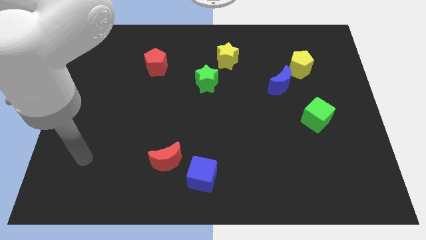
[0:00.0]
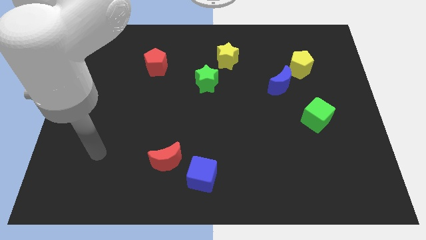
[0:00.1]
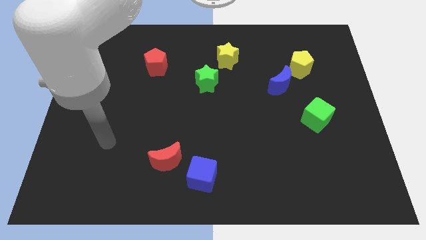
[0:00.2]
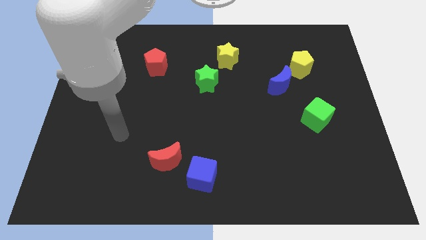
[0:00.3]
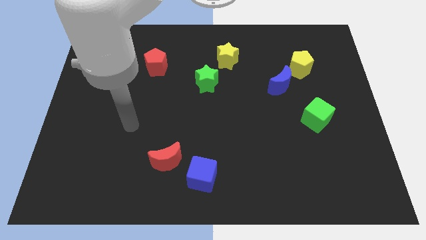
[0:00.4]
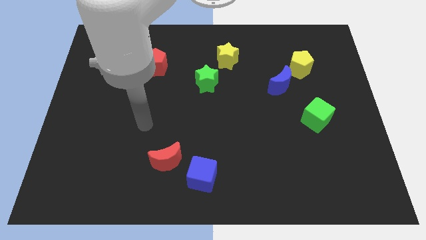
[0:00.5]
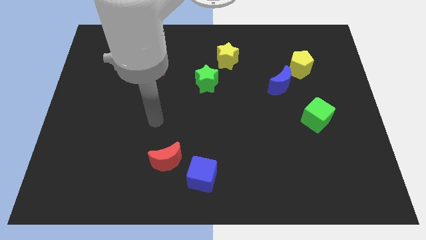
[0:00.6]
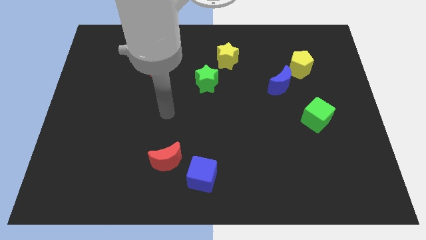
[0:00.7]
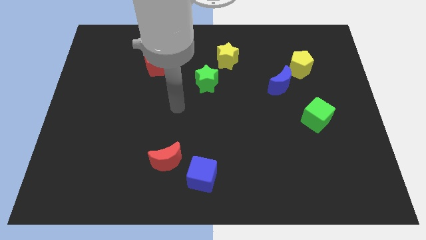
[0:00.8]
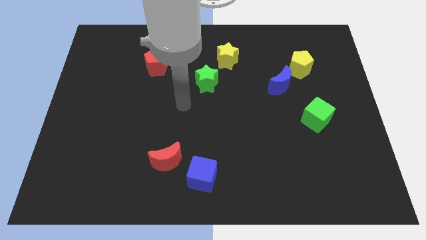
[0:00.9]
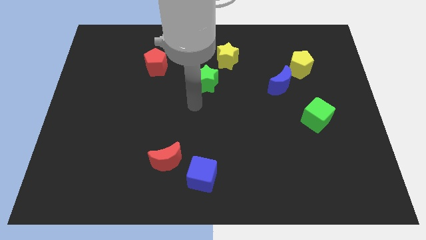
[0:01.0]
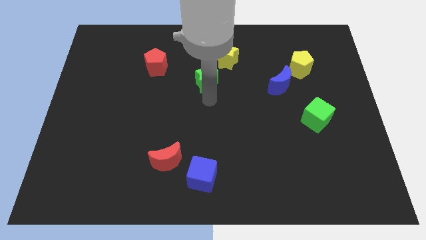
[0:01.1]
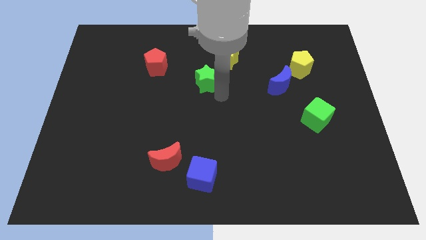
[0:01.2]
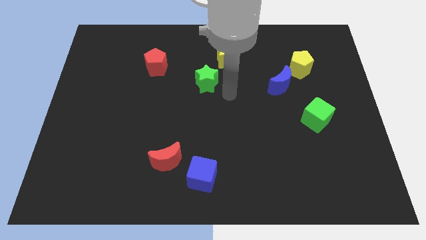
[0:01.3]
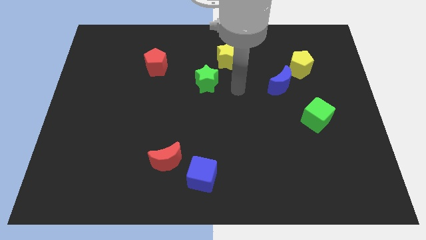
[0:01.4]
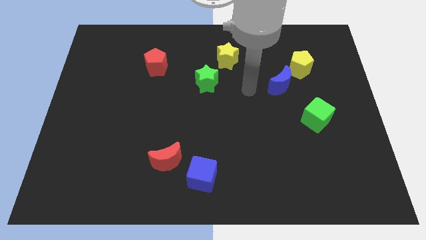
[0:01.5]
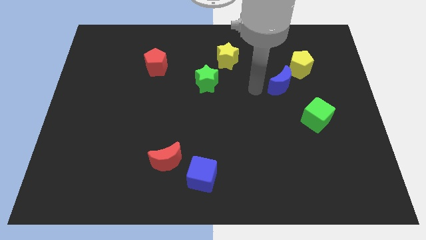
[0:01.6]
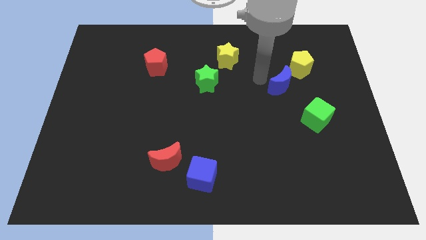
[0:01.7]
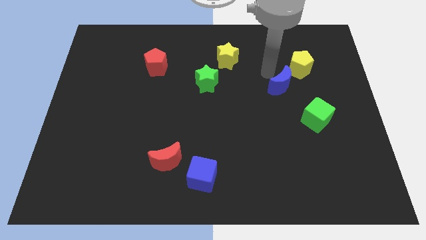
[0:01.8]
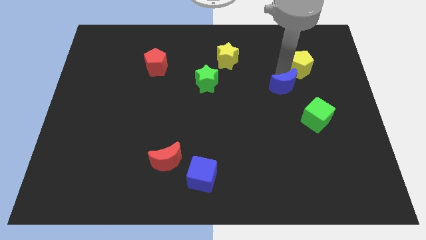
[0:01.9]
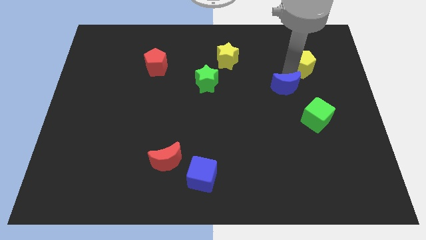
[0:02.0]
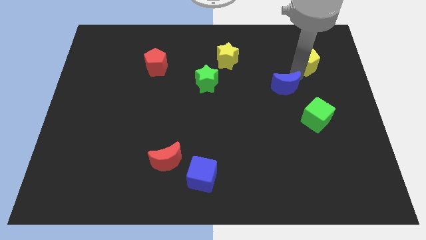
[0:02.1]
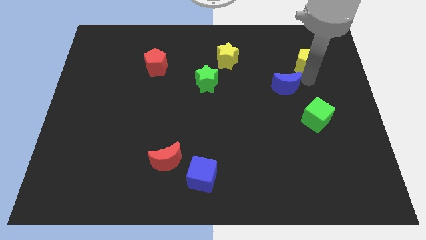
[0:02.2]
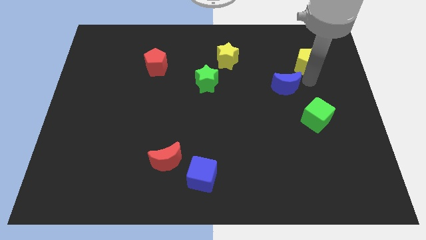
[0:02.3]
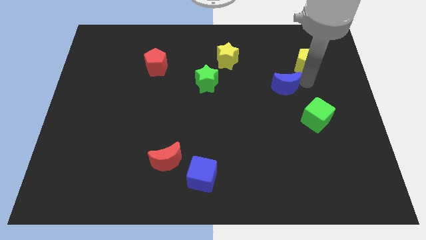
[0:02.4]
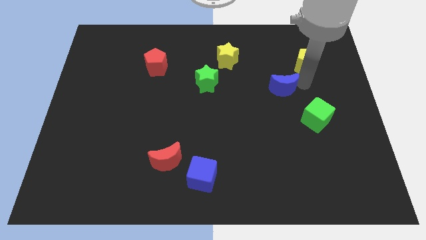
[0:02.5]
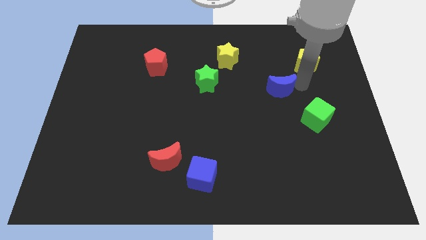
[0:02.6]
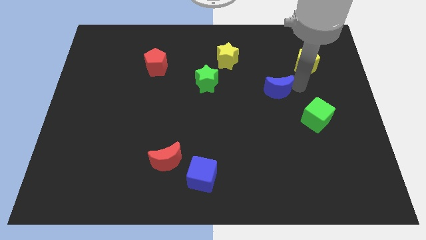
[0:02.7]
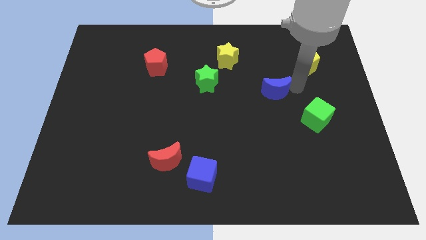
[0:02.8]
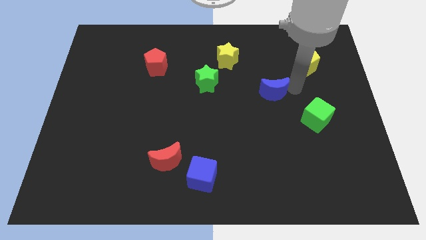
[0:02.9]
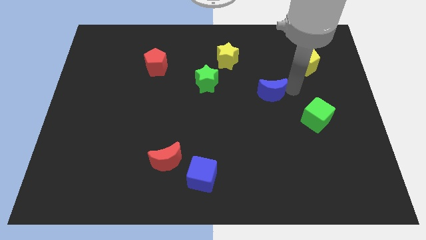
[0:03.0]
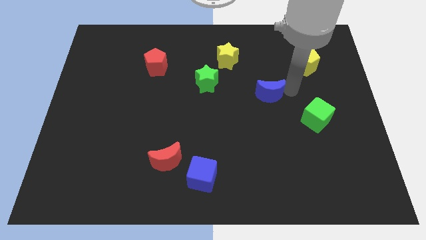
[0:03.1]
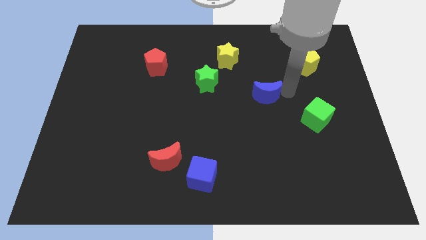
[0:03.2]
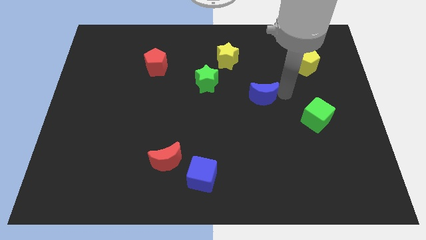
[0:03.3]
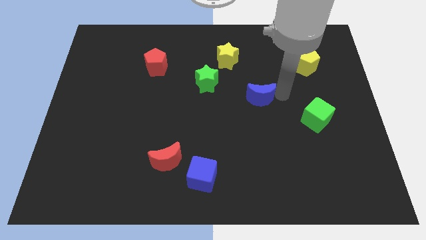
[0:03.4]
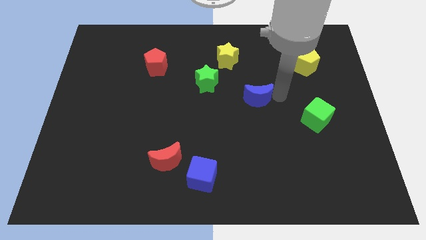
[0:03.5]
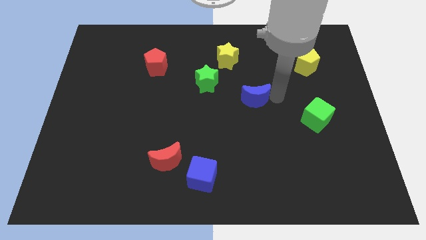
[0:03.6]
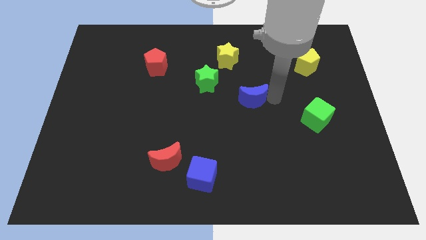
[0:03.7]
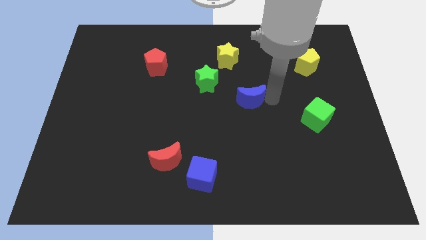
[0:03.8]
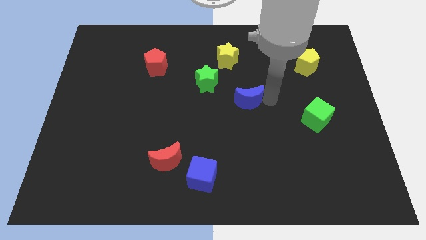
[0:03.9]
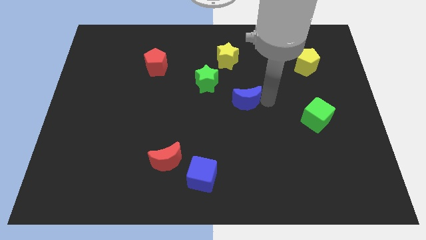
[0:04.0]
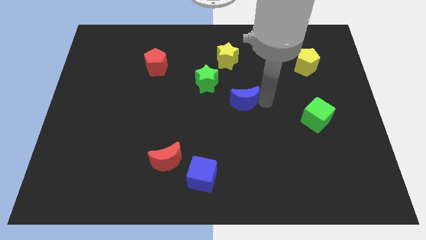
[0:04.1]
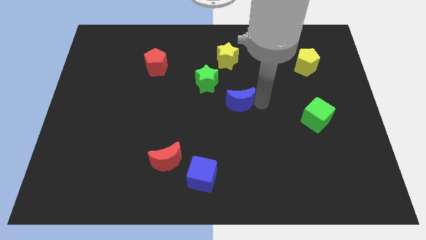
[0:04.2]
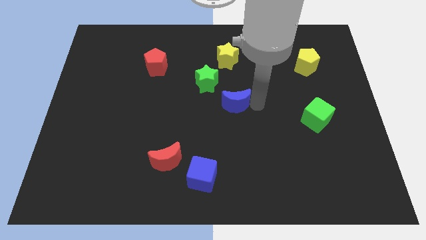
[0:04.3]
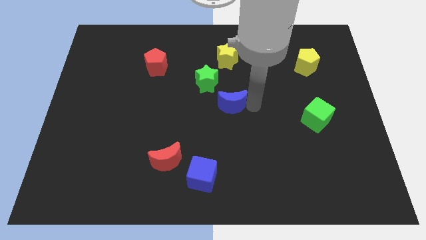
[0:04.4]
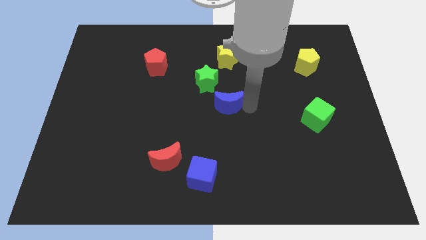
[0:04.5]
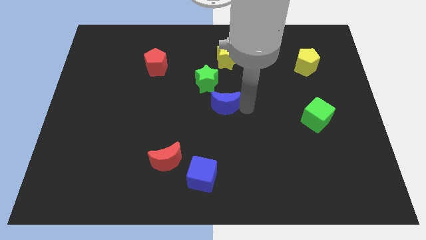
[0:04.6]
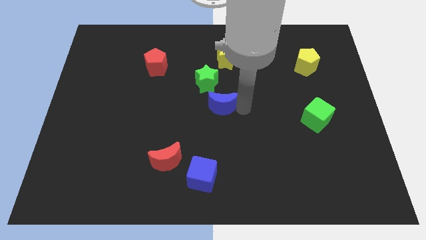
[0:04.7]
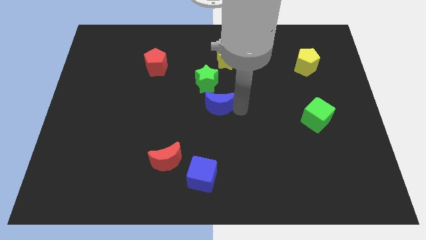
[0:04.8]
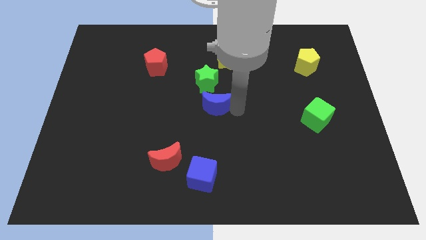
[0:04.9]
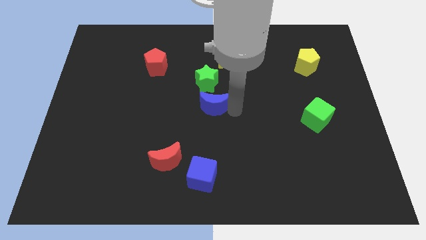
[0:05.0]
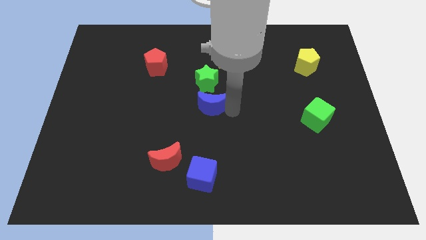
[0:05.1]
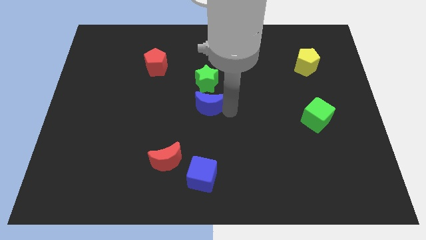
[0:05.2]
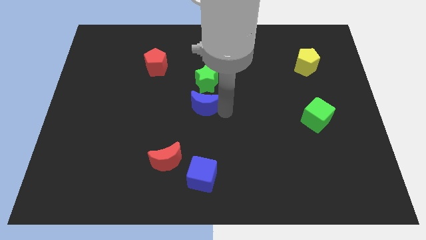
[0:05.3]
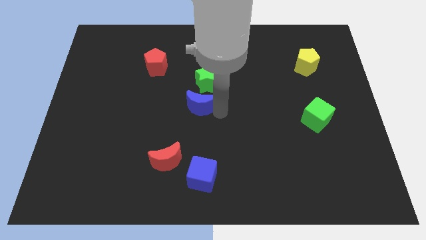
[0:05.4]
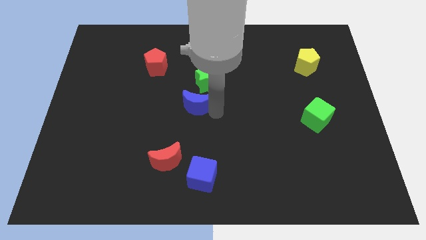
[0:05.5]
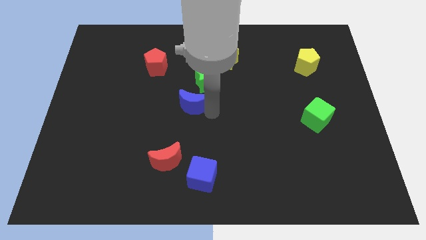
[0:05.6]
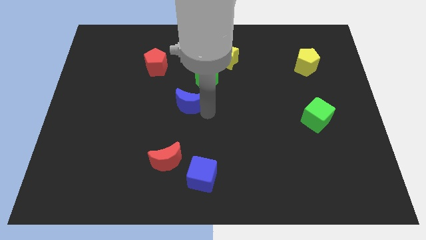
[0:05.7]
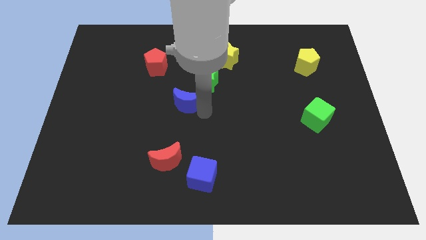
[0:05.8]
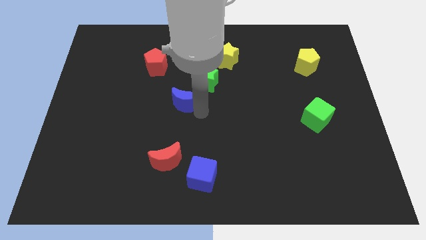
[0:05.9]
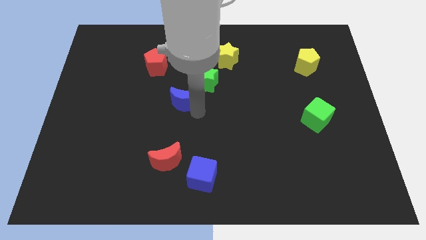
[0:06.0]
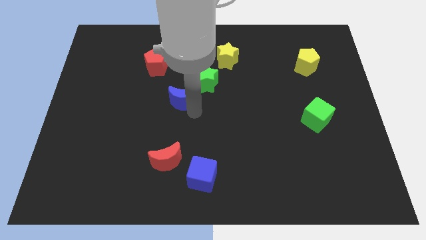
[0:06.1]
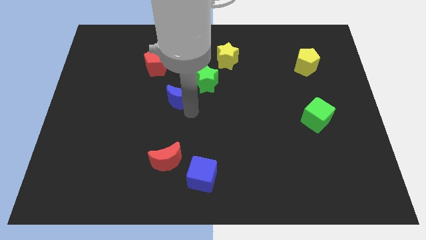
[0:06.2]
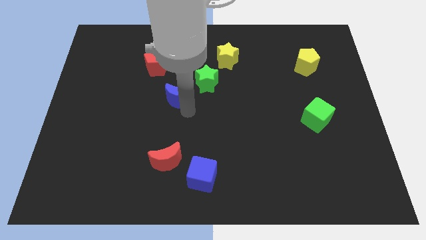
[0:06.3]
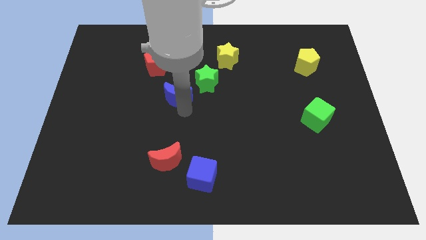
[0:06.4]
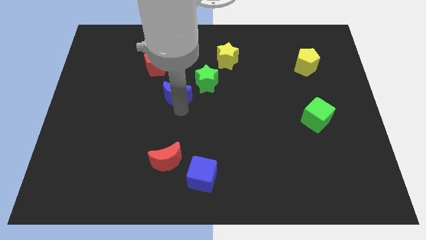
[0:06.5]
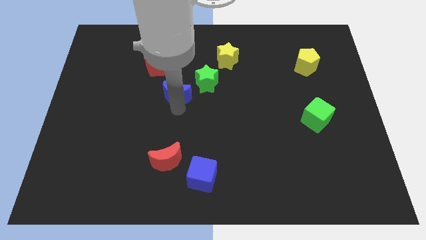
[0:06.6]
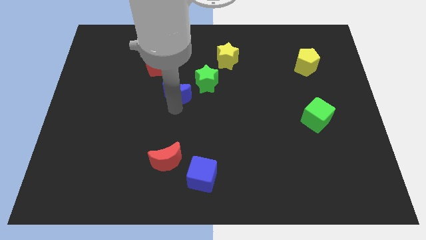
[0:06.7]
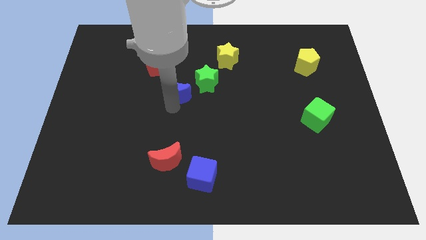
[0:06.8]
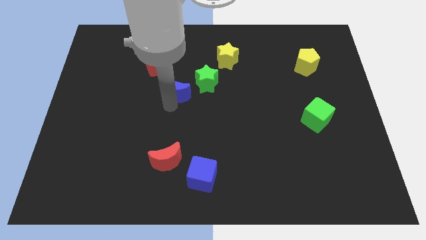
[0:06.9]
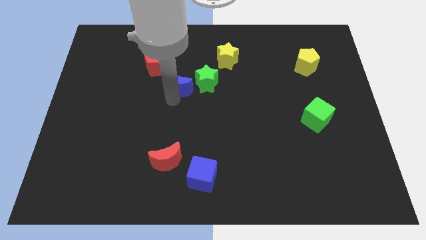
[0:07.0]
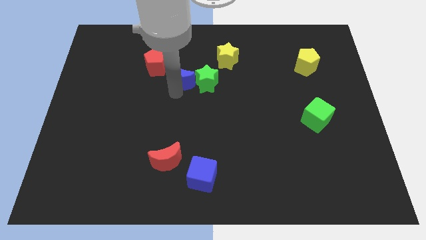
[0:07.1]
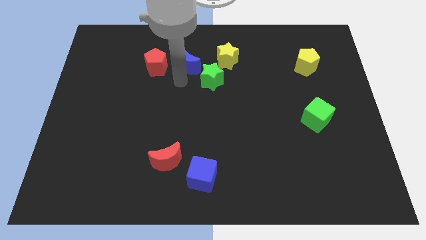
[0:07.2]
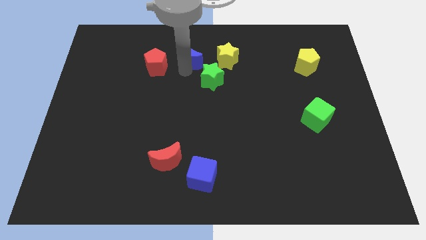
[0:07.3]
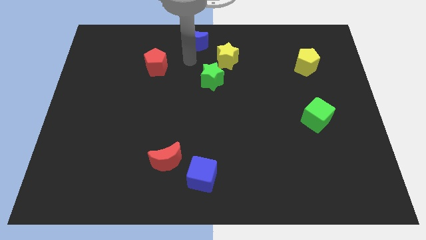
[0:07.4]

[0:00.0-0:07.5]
push the blue moon to the towards your base
